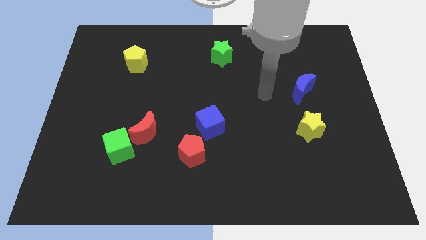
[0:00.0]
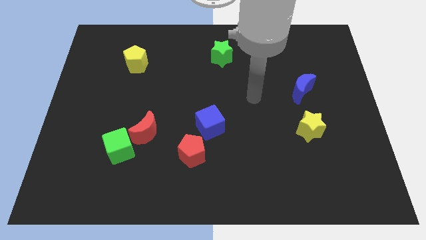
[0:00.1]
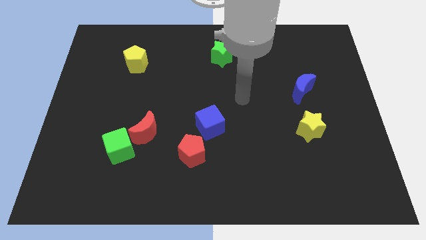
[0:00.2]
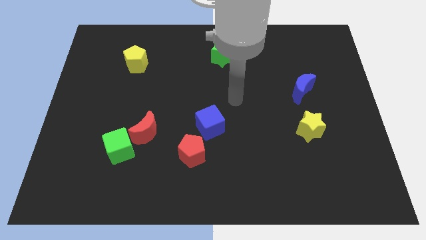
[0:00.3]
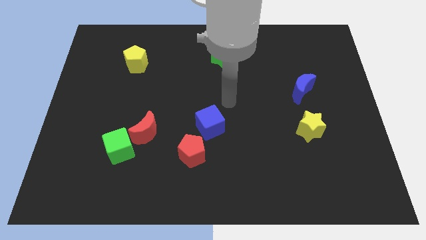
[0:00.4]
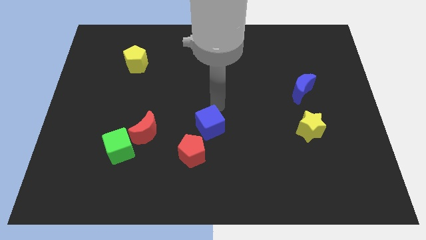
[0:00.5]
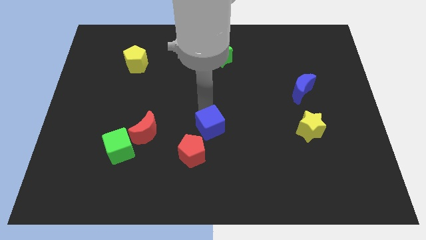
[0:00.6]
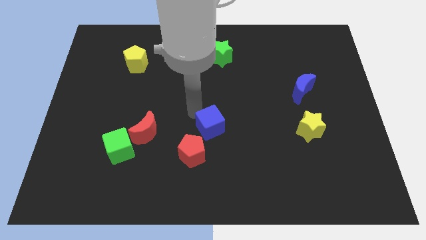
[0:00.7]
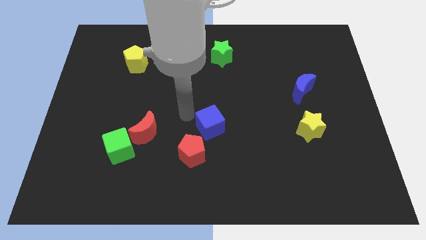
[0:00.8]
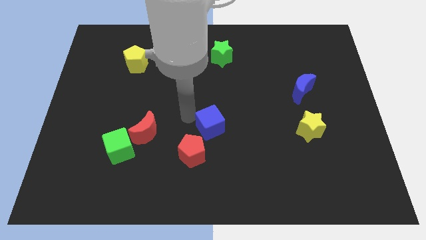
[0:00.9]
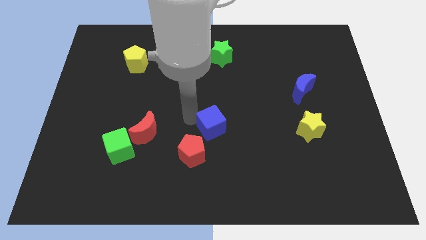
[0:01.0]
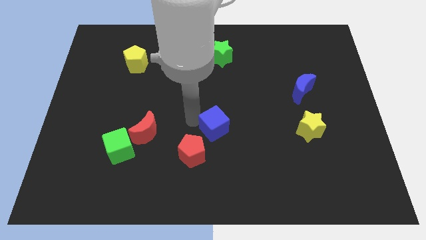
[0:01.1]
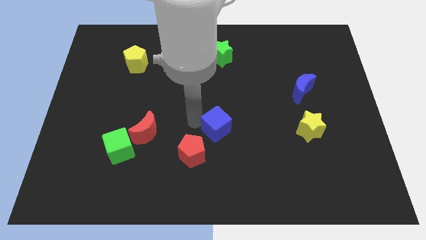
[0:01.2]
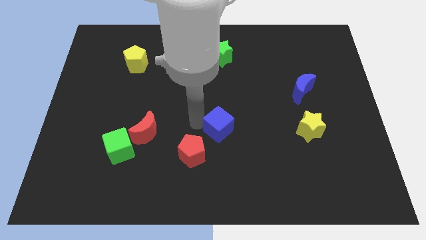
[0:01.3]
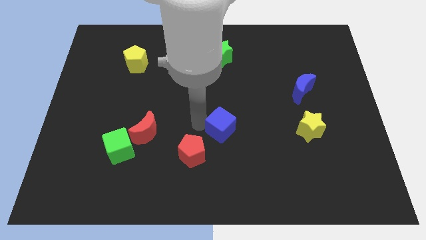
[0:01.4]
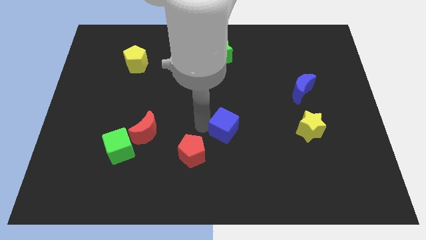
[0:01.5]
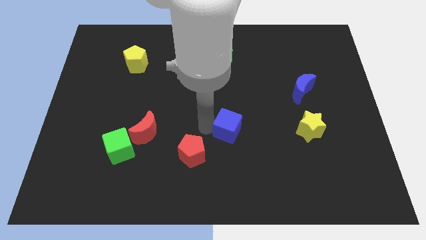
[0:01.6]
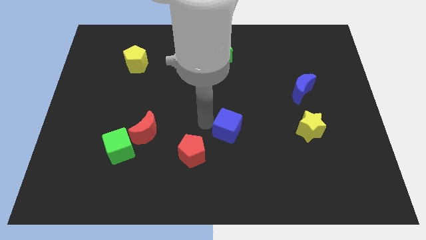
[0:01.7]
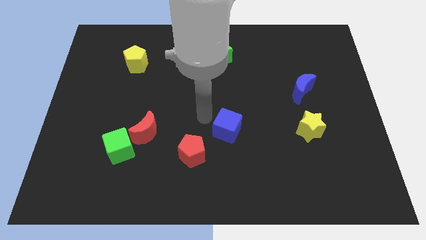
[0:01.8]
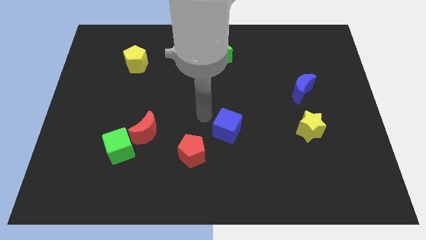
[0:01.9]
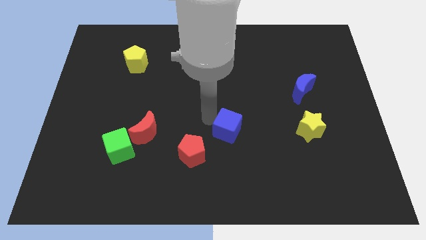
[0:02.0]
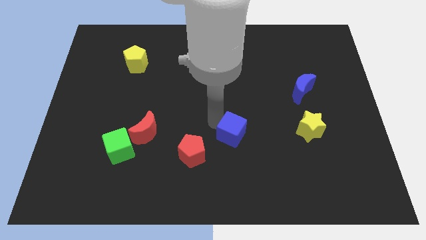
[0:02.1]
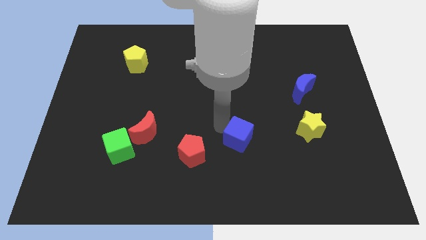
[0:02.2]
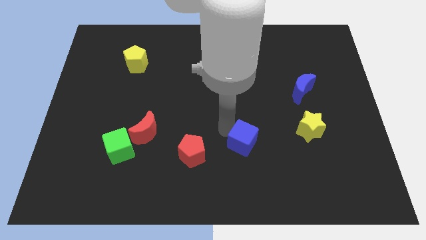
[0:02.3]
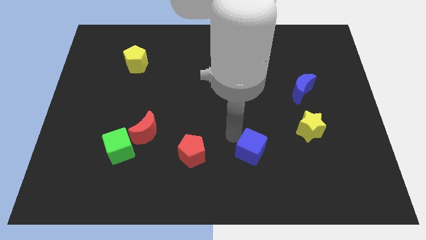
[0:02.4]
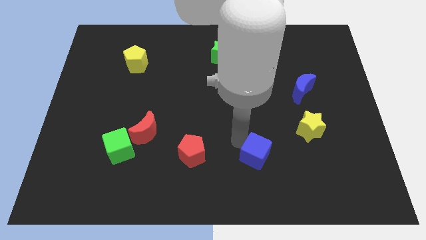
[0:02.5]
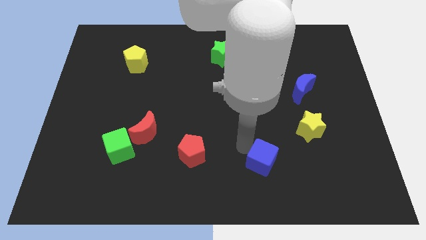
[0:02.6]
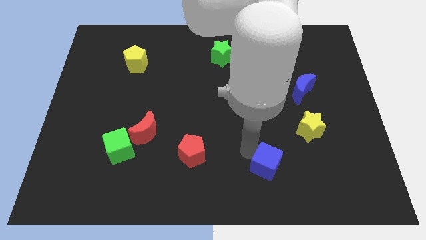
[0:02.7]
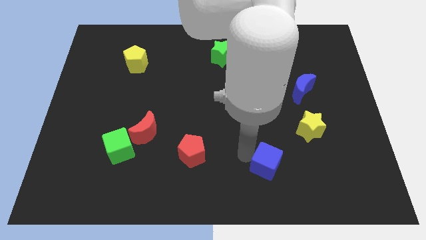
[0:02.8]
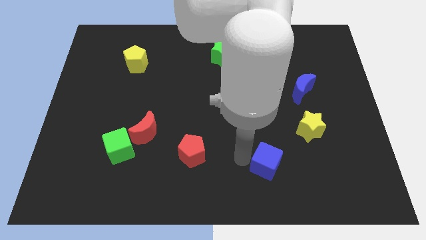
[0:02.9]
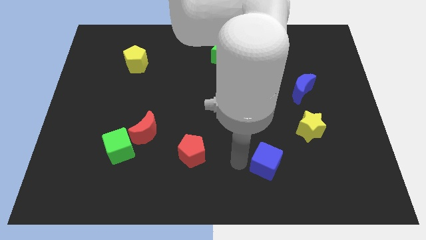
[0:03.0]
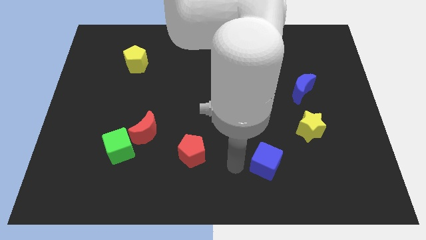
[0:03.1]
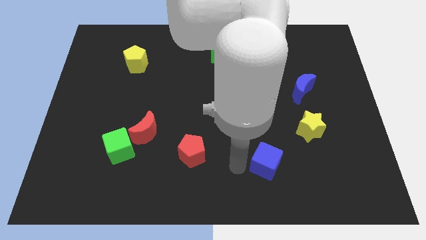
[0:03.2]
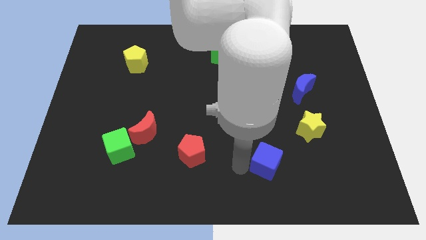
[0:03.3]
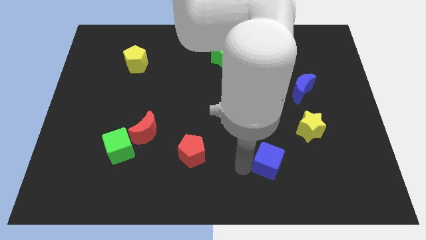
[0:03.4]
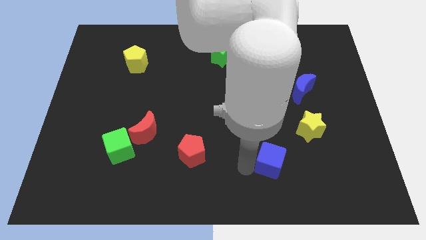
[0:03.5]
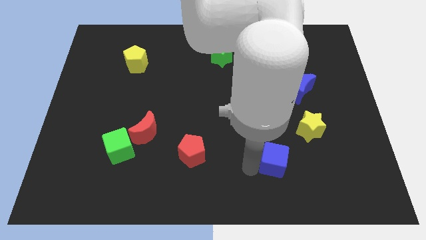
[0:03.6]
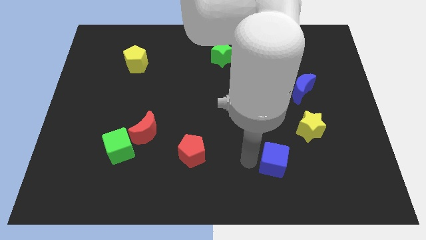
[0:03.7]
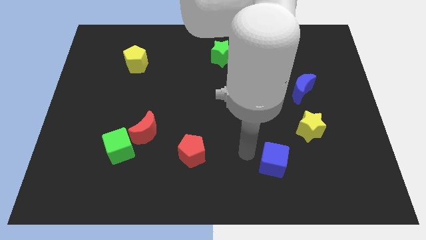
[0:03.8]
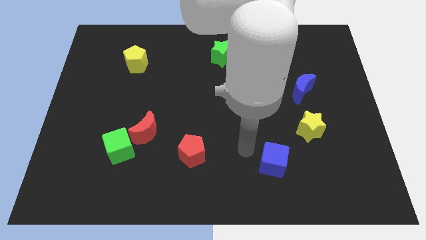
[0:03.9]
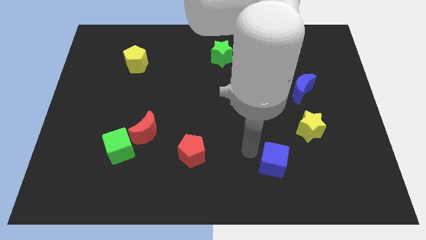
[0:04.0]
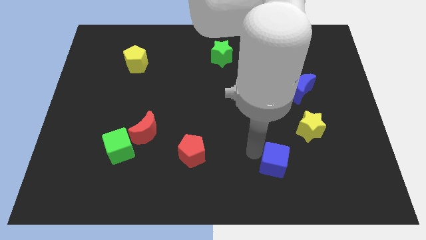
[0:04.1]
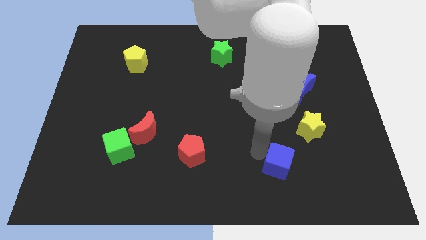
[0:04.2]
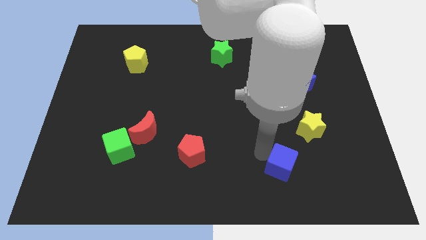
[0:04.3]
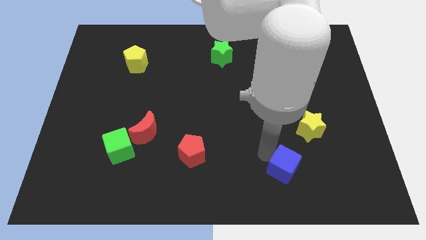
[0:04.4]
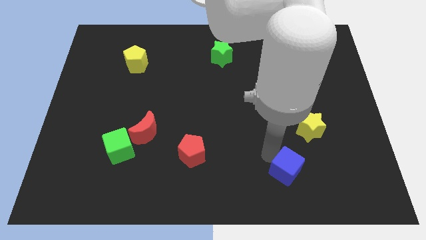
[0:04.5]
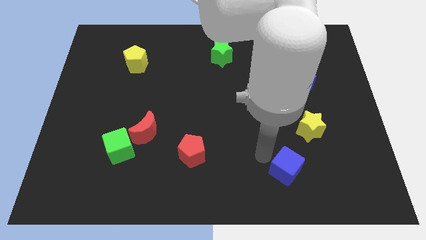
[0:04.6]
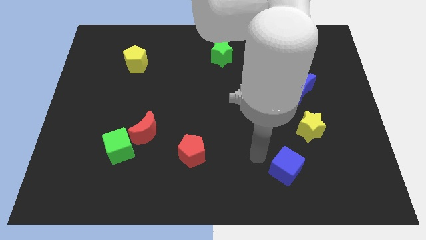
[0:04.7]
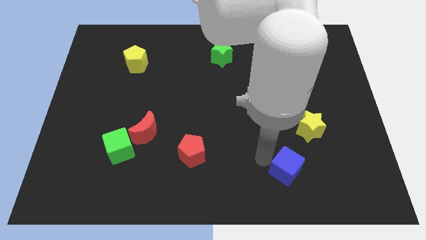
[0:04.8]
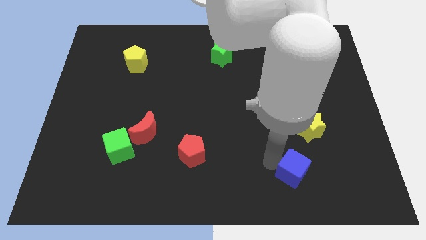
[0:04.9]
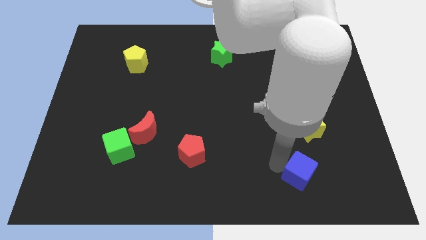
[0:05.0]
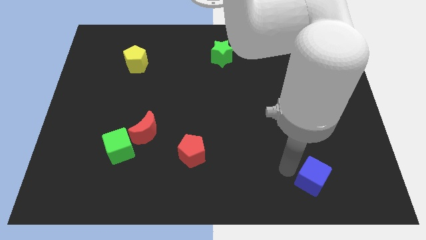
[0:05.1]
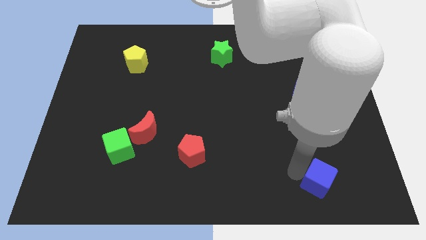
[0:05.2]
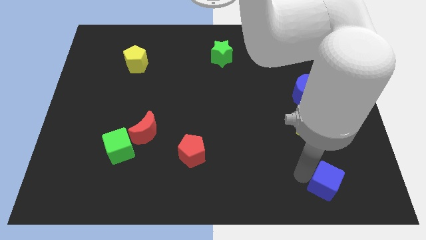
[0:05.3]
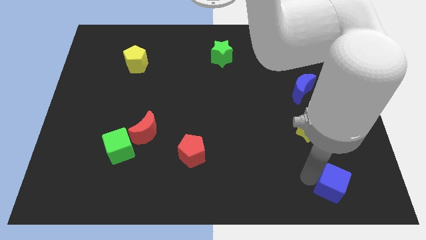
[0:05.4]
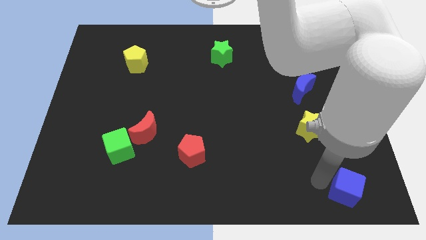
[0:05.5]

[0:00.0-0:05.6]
move the blue cube to the bottom right

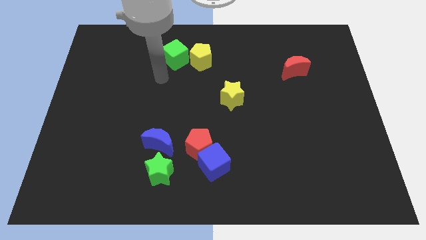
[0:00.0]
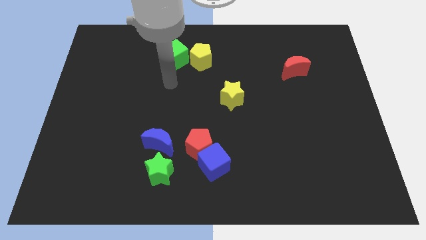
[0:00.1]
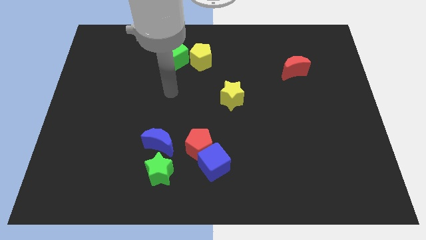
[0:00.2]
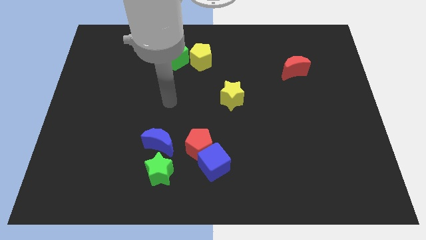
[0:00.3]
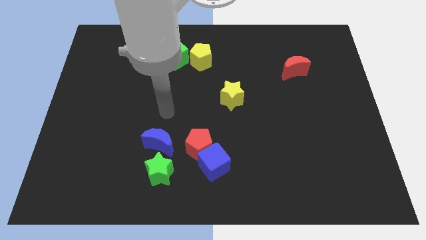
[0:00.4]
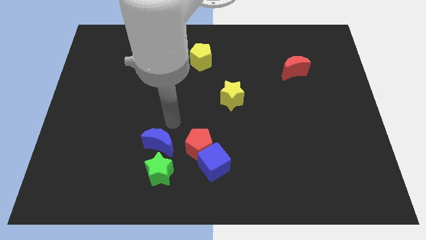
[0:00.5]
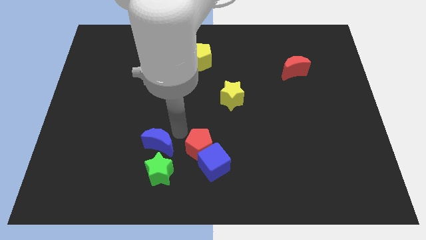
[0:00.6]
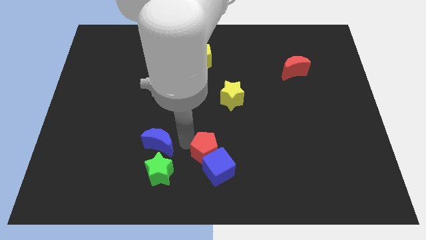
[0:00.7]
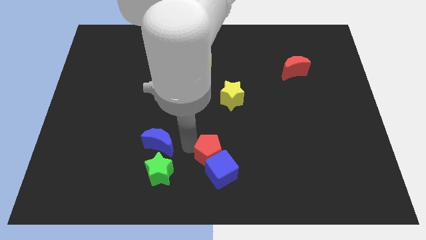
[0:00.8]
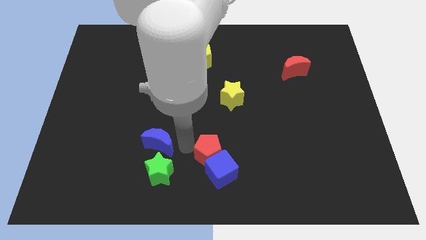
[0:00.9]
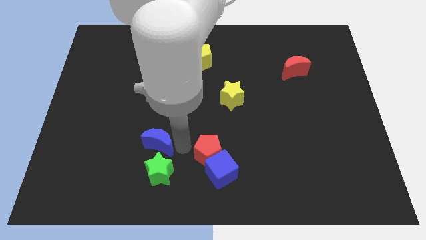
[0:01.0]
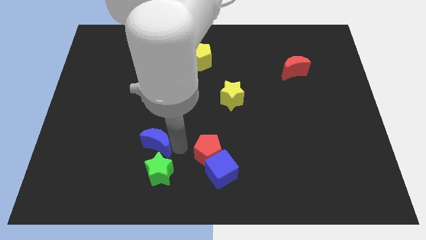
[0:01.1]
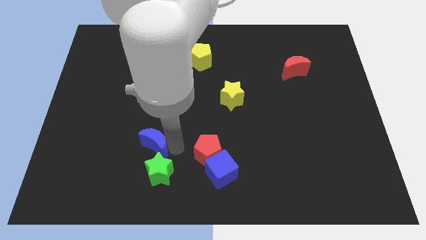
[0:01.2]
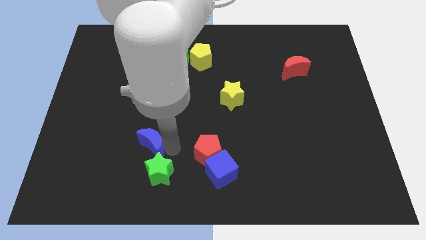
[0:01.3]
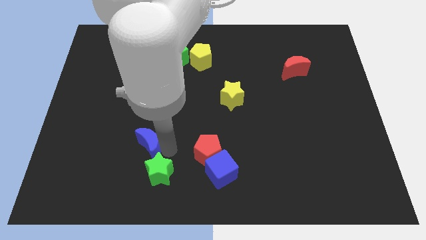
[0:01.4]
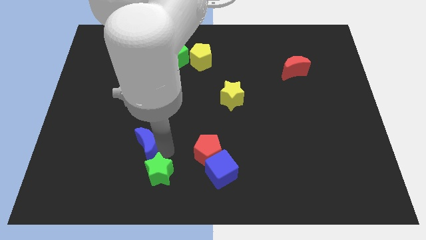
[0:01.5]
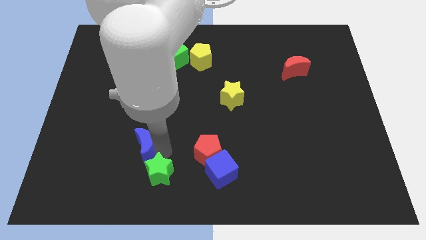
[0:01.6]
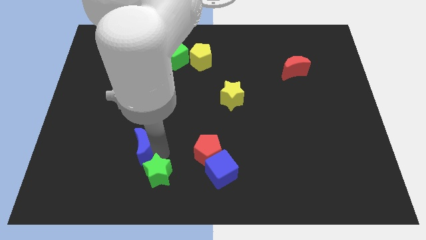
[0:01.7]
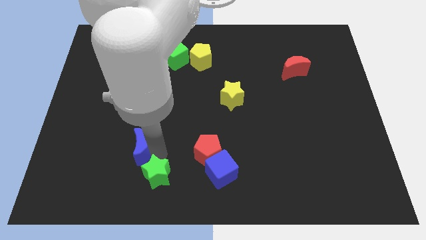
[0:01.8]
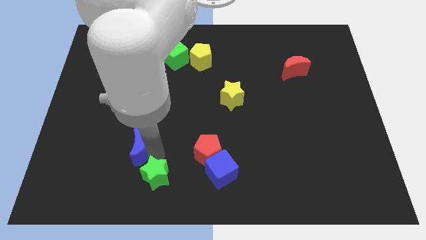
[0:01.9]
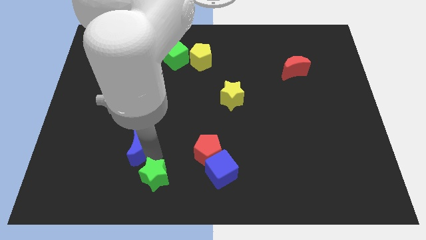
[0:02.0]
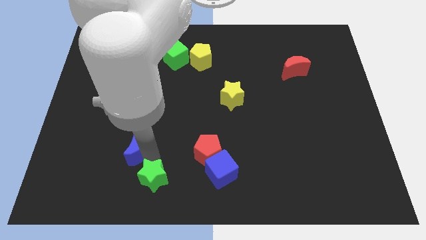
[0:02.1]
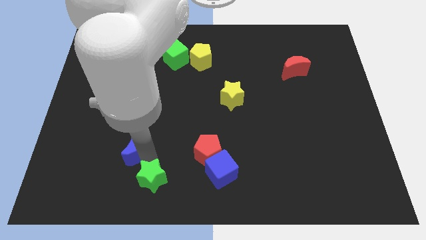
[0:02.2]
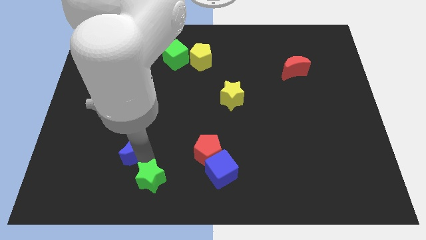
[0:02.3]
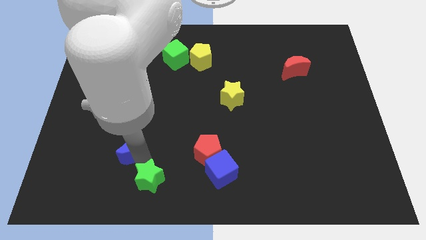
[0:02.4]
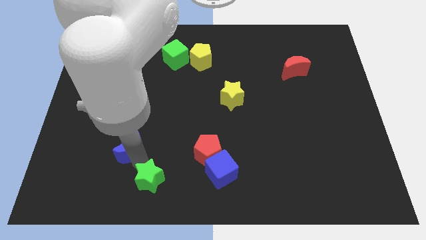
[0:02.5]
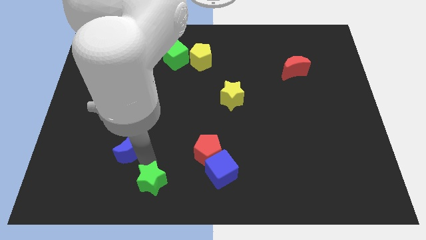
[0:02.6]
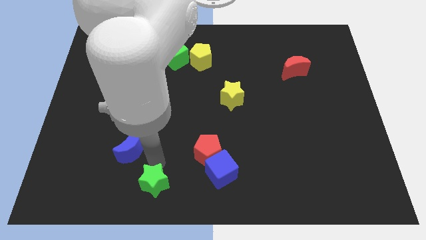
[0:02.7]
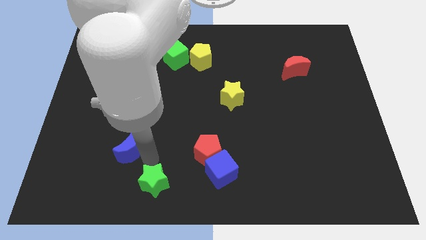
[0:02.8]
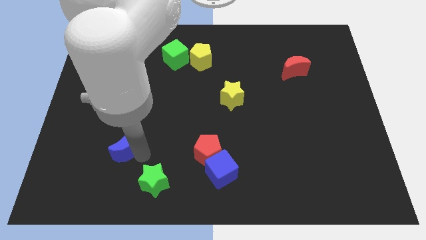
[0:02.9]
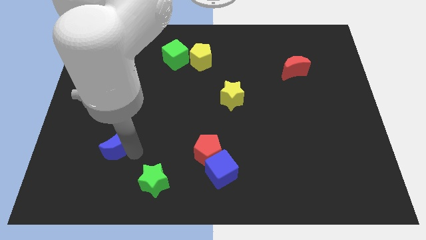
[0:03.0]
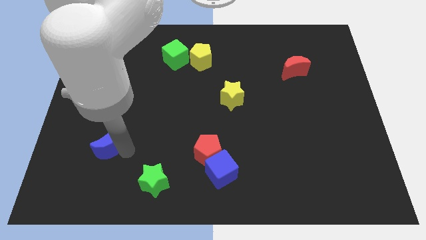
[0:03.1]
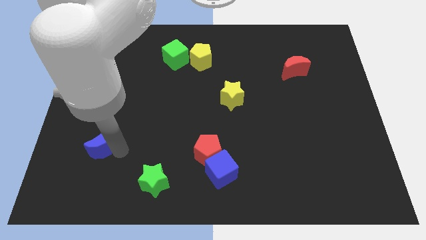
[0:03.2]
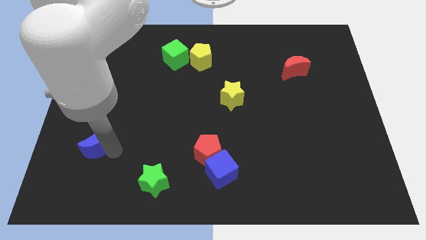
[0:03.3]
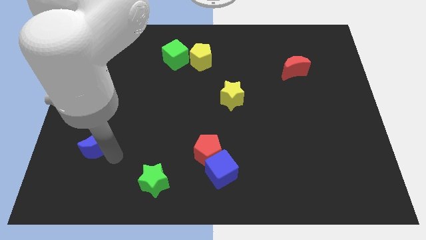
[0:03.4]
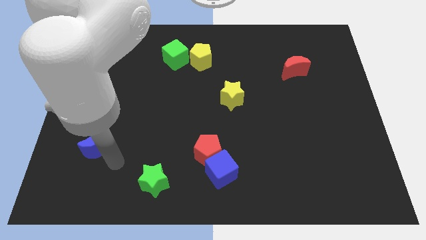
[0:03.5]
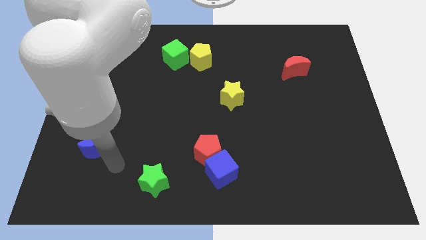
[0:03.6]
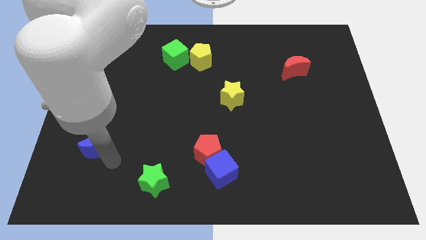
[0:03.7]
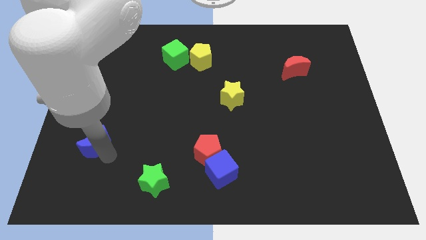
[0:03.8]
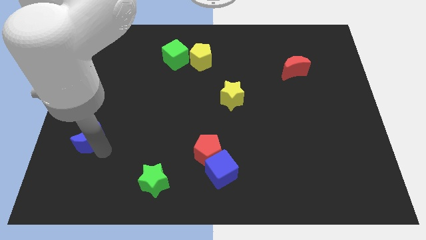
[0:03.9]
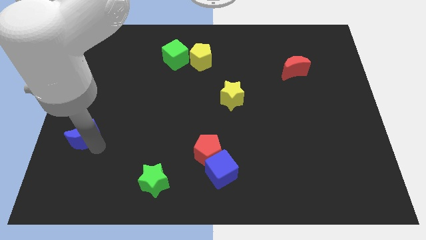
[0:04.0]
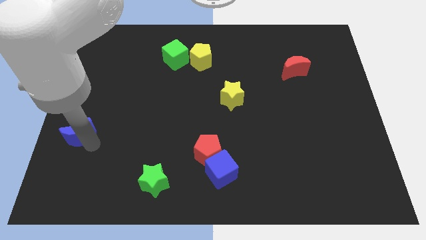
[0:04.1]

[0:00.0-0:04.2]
put the blue moon to the center left
